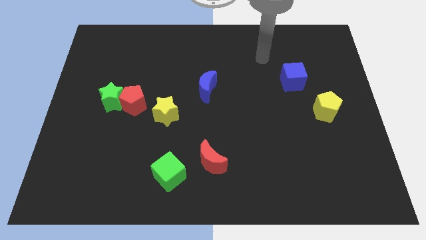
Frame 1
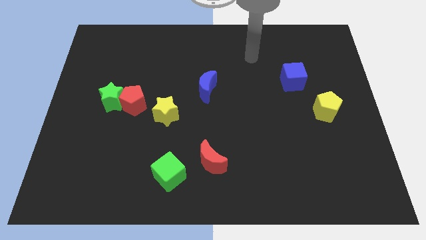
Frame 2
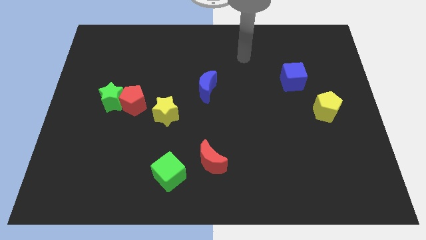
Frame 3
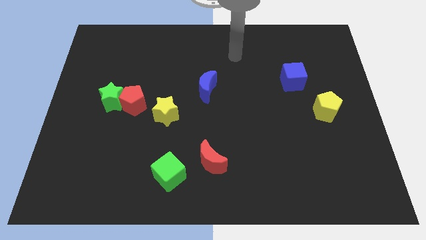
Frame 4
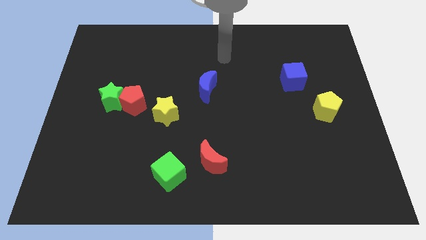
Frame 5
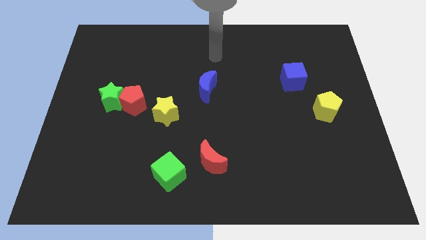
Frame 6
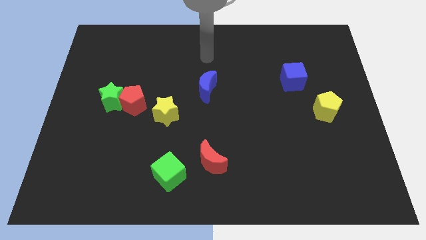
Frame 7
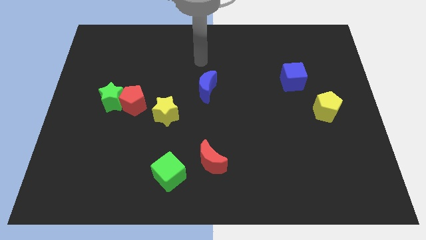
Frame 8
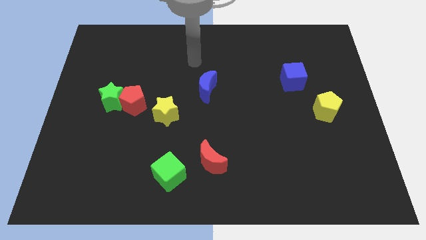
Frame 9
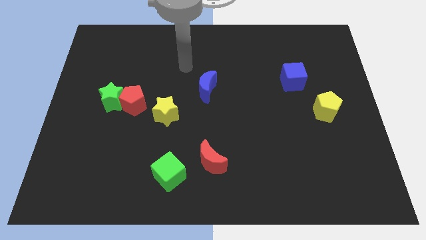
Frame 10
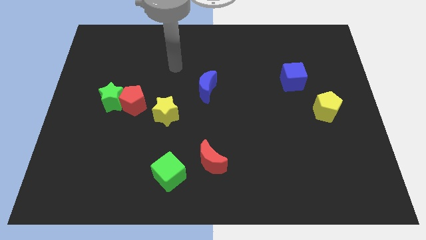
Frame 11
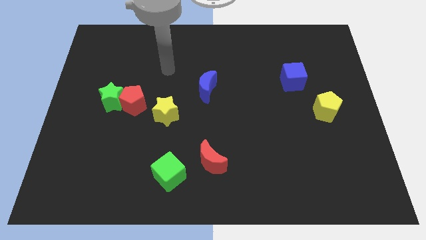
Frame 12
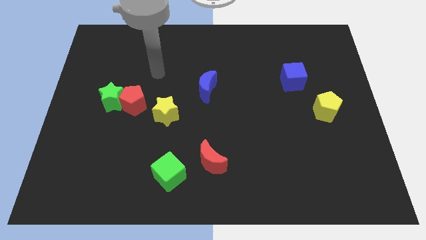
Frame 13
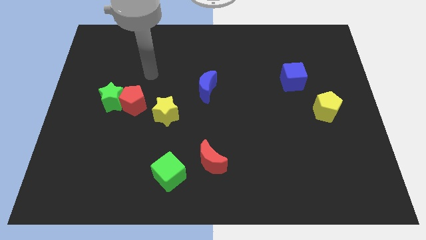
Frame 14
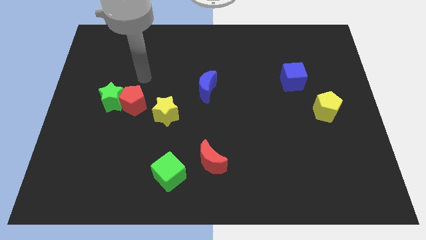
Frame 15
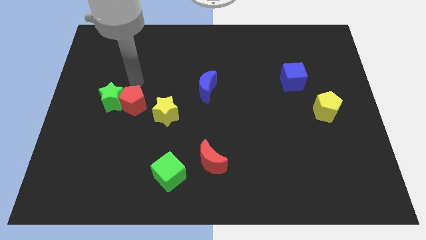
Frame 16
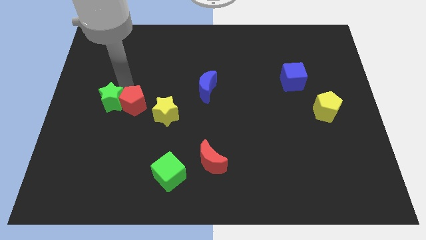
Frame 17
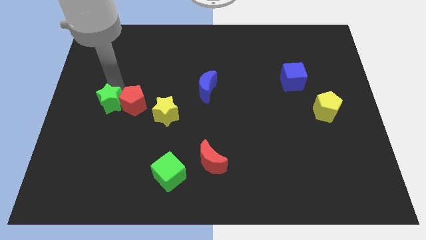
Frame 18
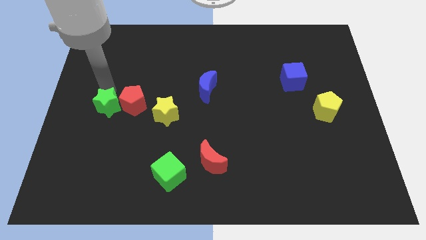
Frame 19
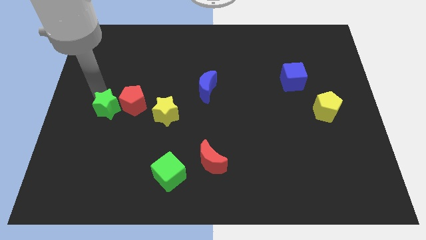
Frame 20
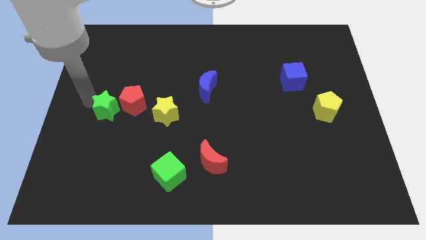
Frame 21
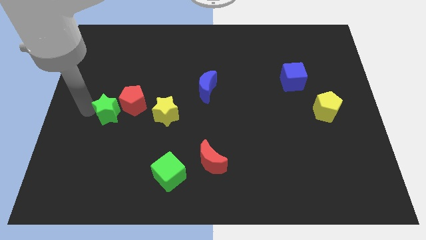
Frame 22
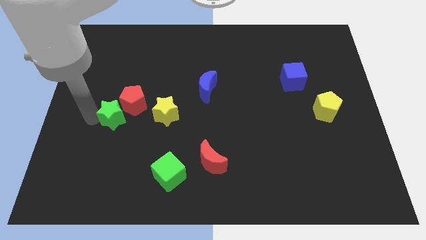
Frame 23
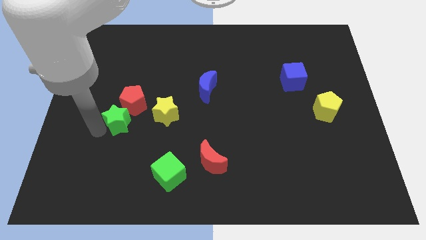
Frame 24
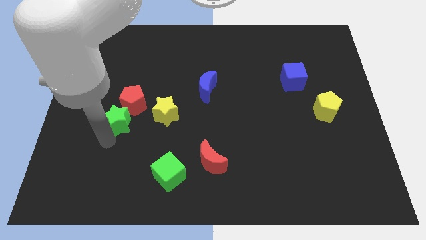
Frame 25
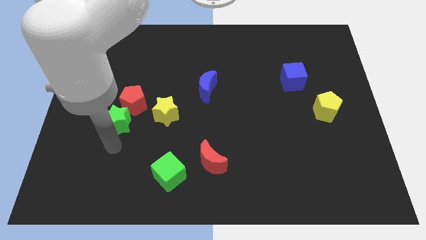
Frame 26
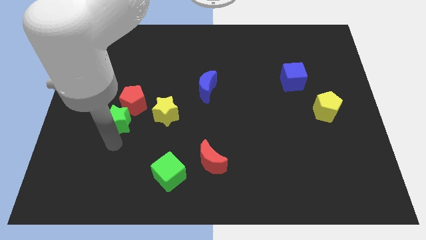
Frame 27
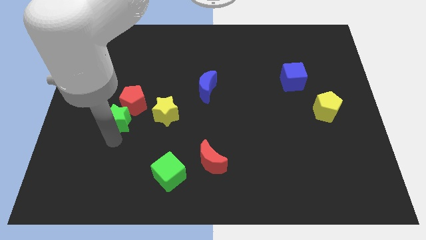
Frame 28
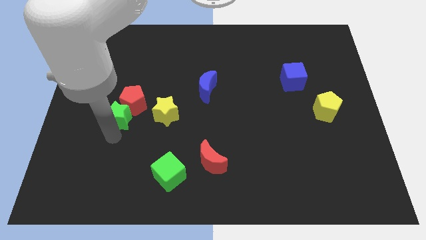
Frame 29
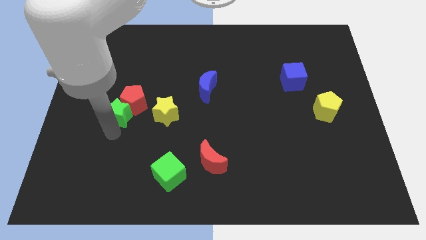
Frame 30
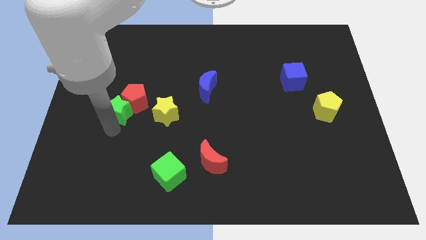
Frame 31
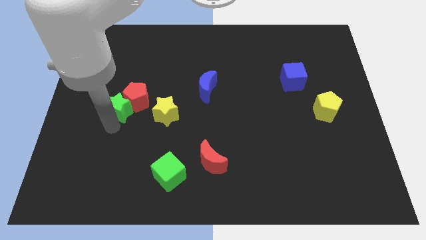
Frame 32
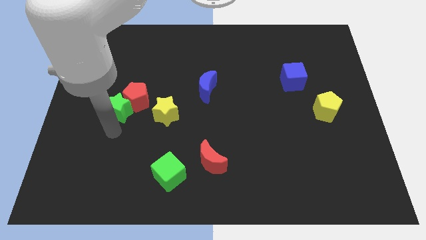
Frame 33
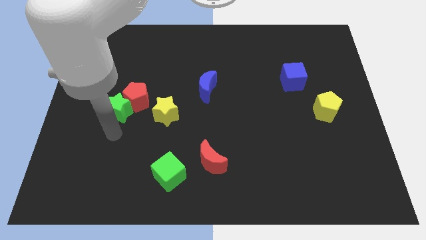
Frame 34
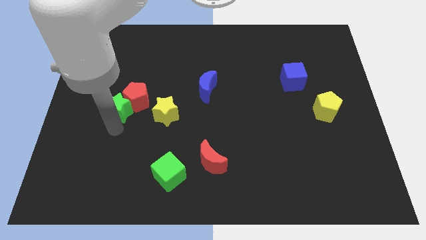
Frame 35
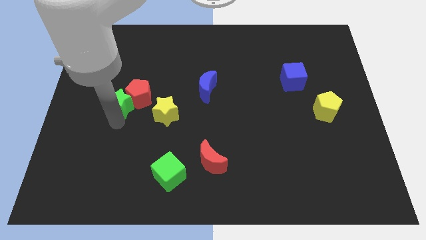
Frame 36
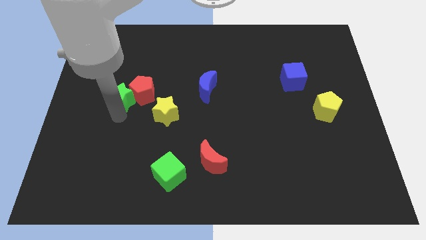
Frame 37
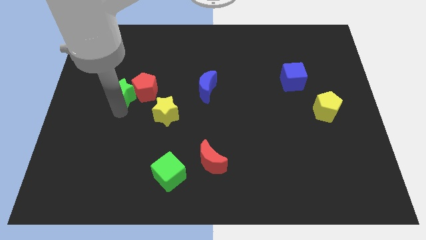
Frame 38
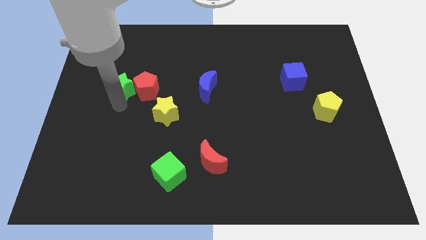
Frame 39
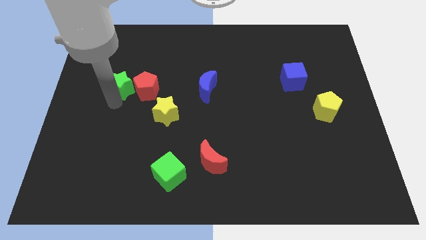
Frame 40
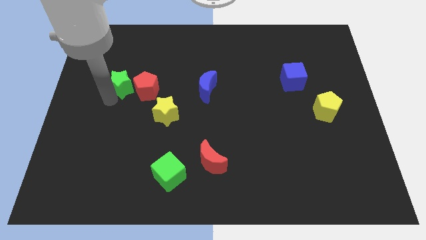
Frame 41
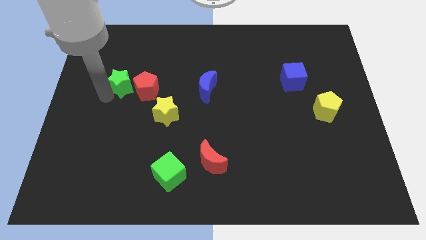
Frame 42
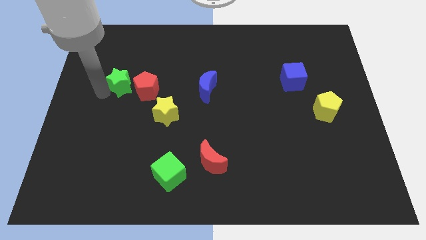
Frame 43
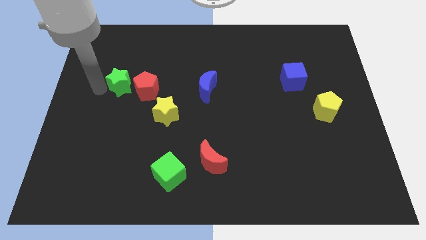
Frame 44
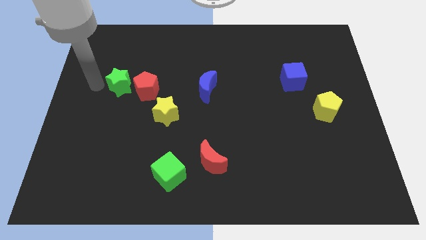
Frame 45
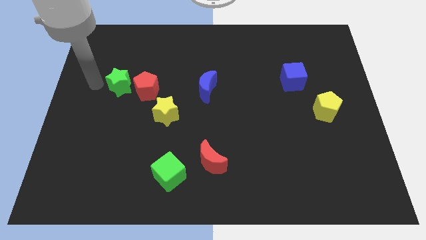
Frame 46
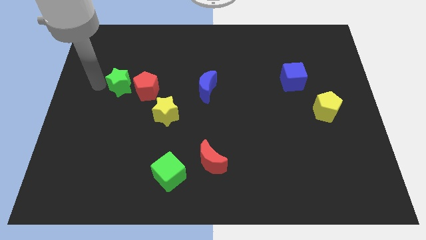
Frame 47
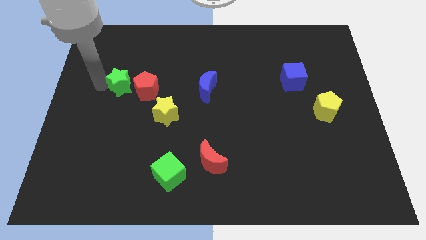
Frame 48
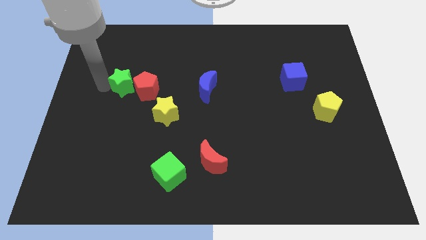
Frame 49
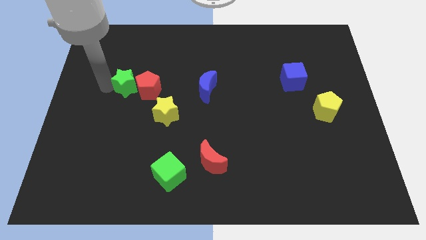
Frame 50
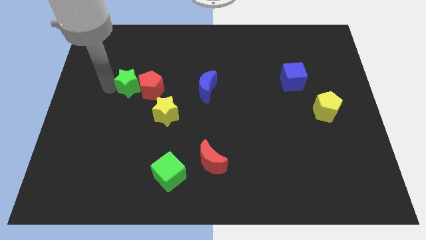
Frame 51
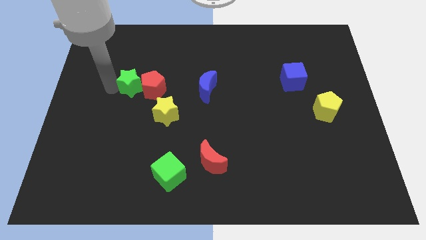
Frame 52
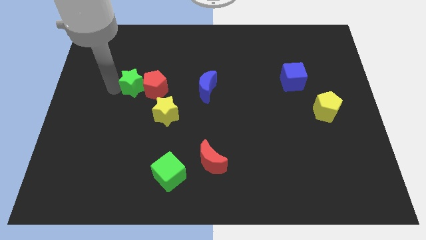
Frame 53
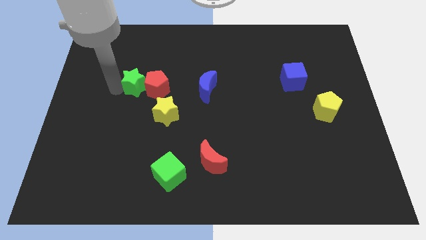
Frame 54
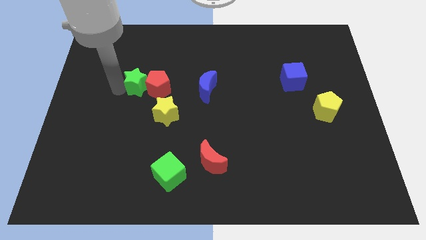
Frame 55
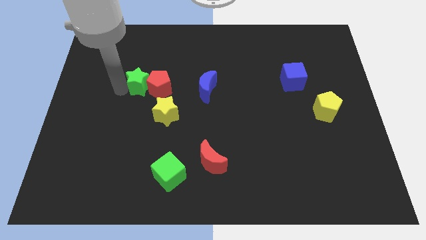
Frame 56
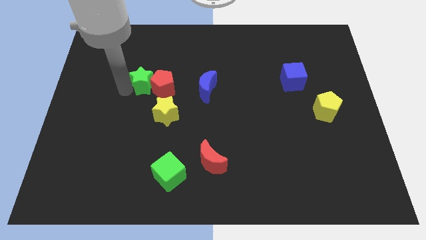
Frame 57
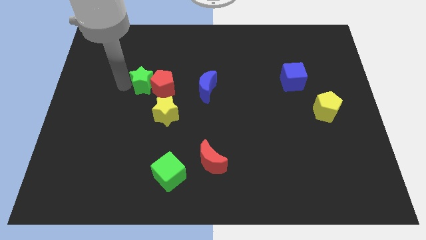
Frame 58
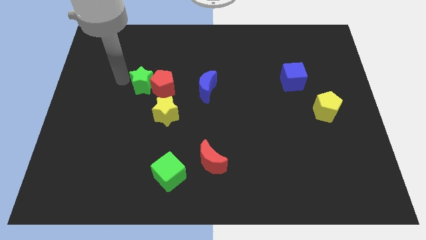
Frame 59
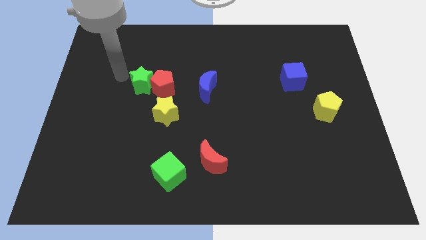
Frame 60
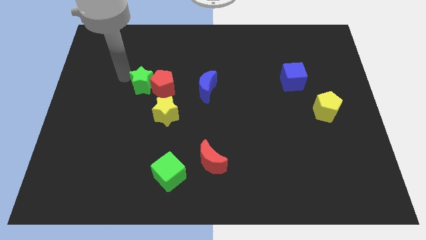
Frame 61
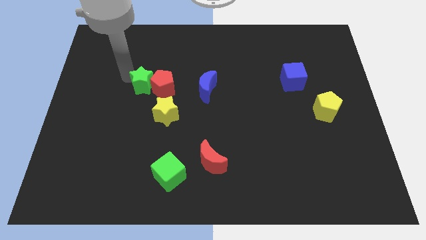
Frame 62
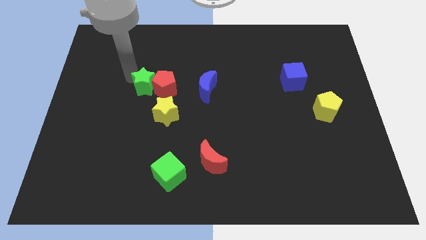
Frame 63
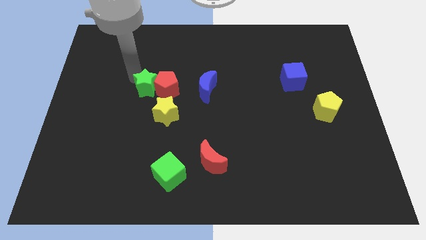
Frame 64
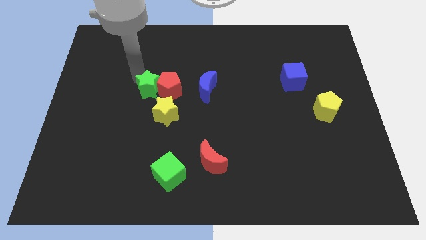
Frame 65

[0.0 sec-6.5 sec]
slightly push the green star right

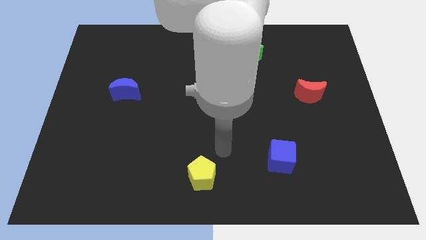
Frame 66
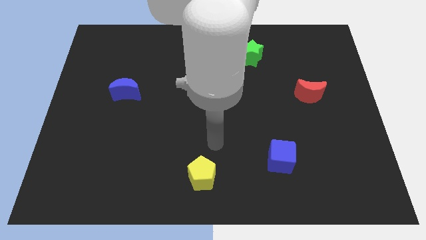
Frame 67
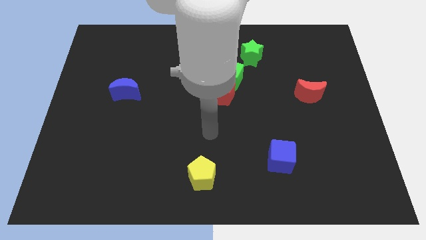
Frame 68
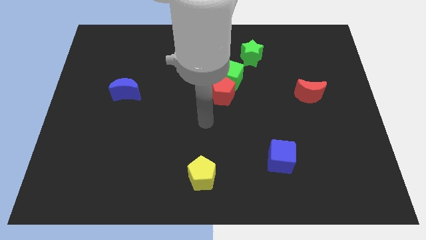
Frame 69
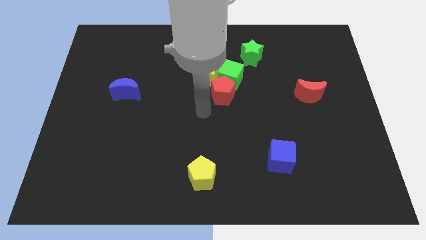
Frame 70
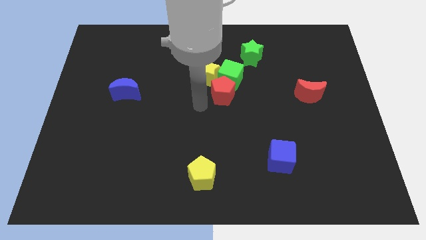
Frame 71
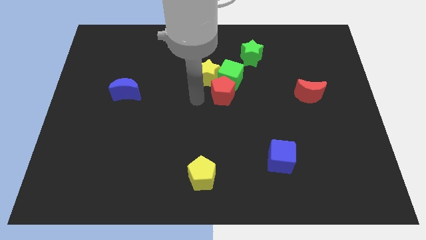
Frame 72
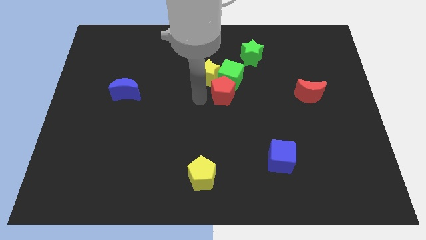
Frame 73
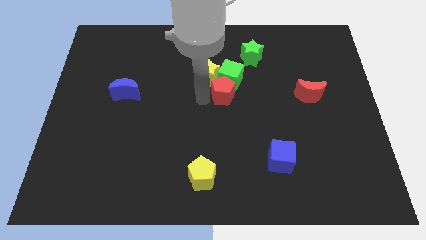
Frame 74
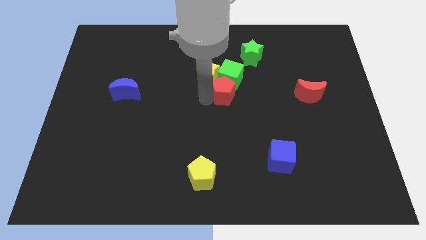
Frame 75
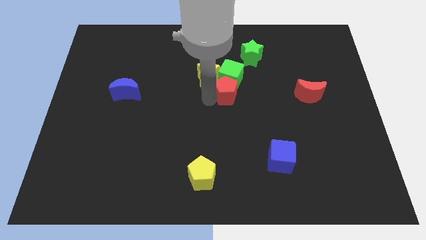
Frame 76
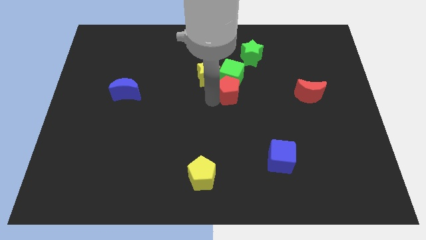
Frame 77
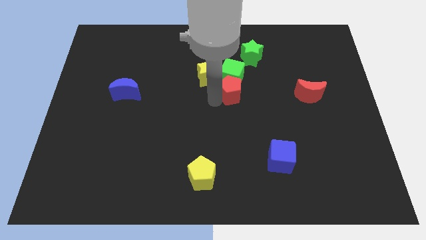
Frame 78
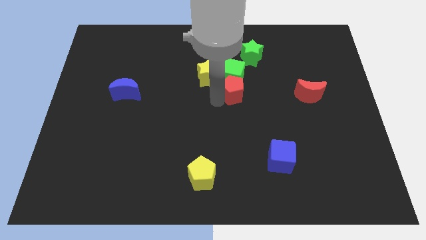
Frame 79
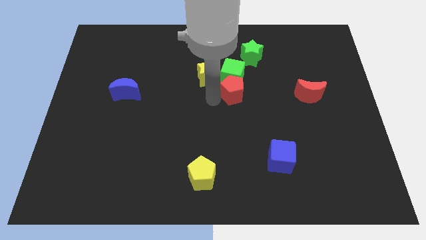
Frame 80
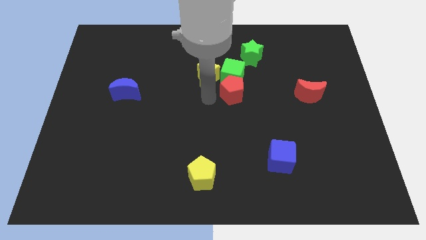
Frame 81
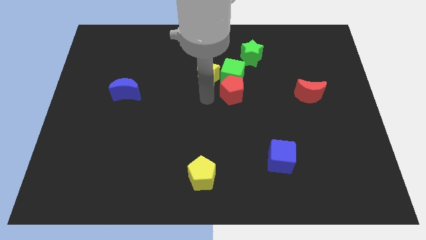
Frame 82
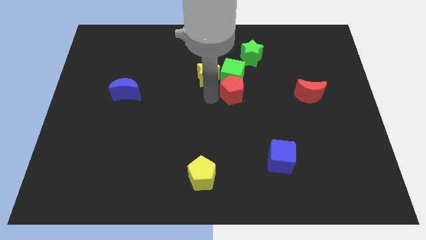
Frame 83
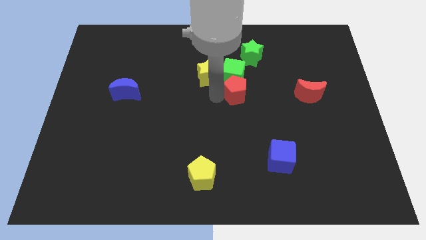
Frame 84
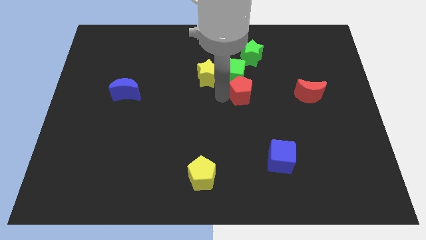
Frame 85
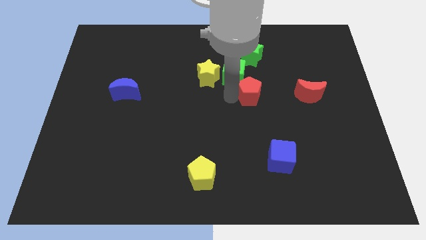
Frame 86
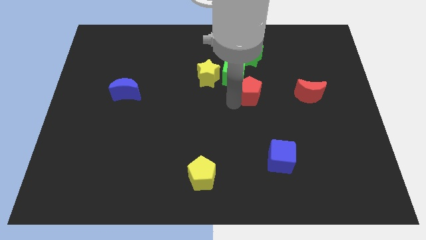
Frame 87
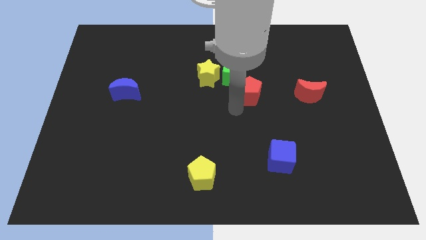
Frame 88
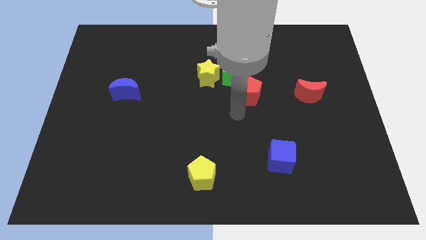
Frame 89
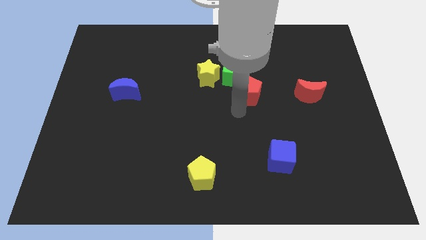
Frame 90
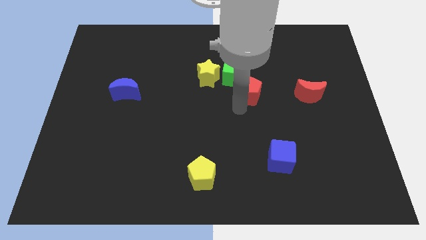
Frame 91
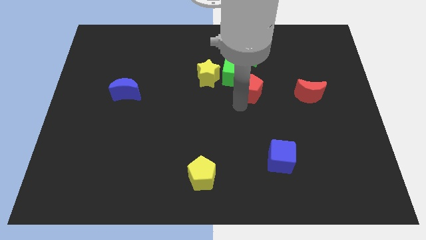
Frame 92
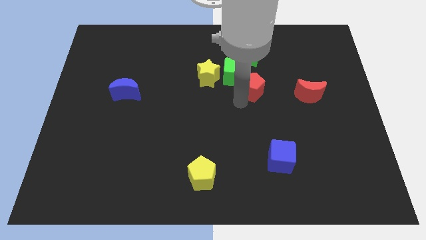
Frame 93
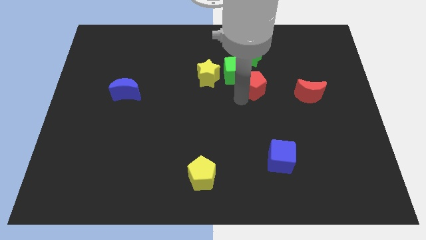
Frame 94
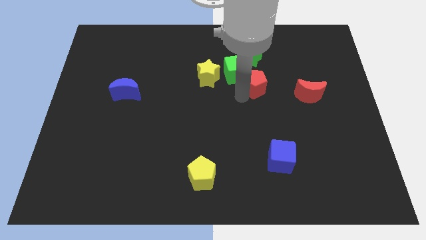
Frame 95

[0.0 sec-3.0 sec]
slightly slide the red pentagon upwards and right diagonally
